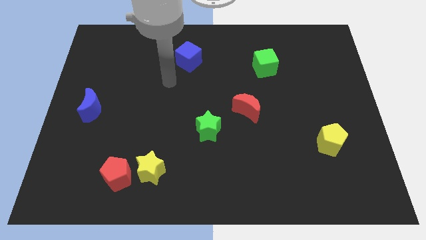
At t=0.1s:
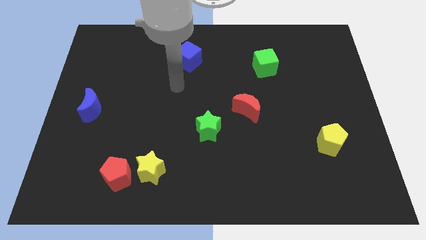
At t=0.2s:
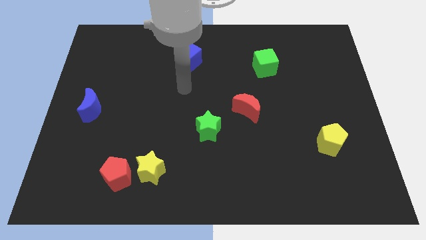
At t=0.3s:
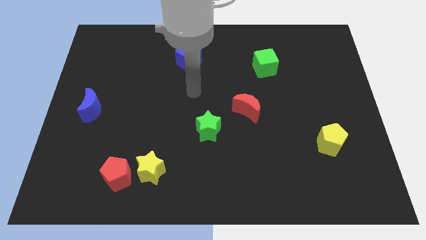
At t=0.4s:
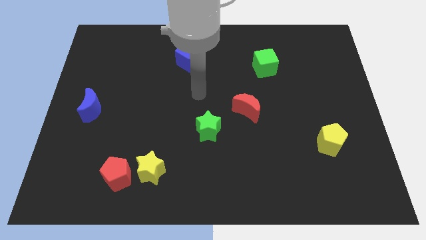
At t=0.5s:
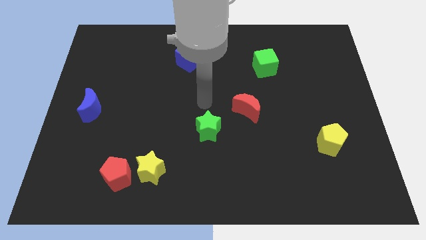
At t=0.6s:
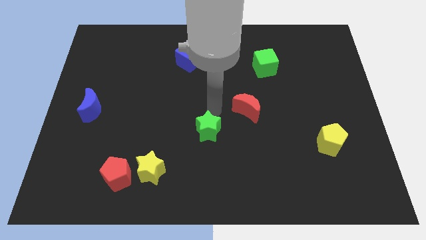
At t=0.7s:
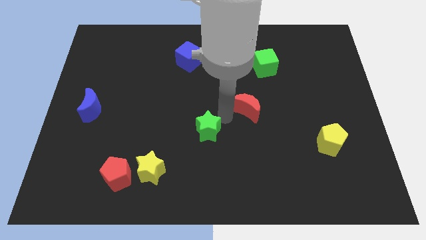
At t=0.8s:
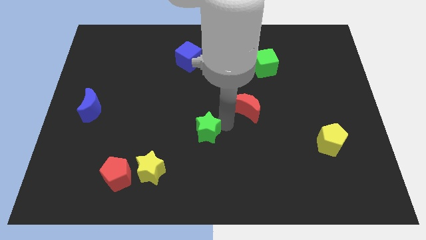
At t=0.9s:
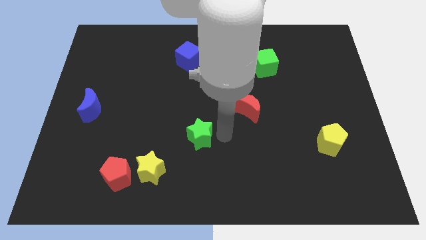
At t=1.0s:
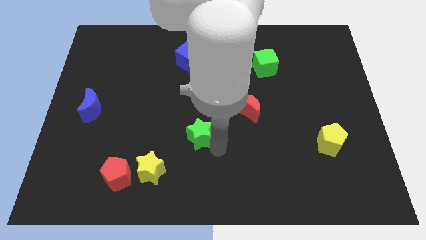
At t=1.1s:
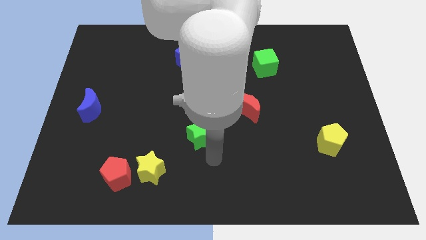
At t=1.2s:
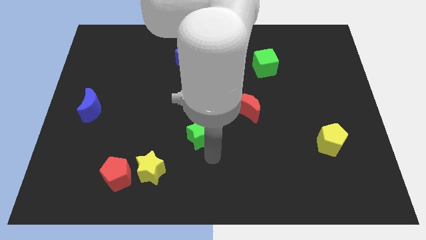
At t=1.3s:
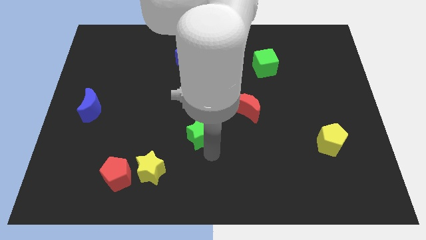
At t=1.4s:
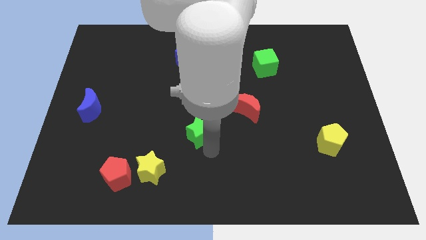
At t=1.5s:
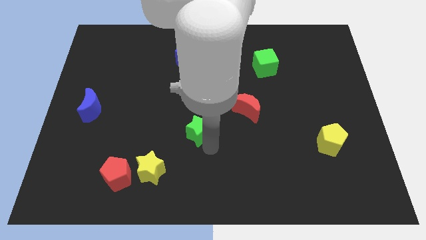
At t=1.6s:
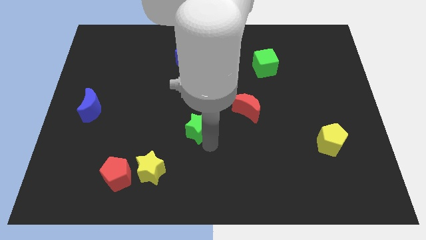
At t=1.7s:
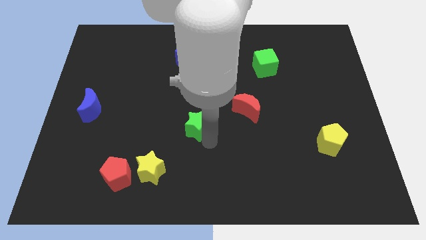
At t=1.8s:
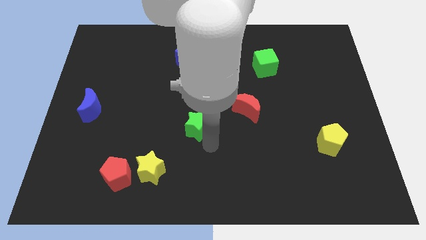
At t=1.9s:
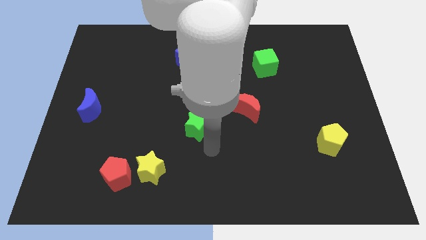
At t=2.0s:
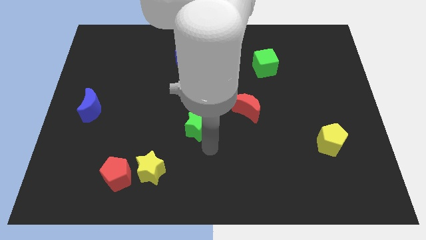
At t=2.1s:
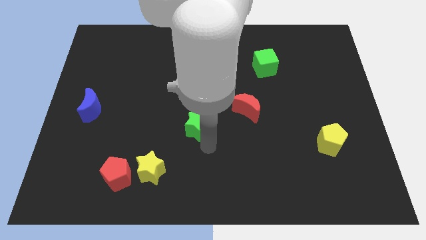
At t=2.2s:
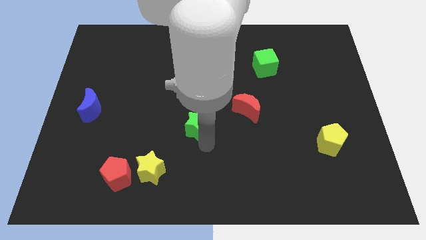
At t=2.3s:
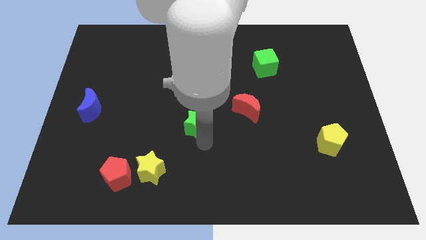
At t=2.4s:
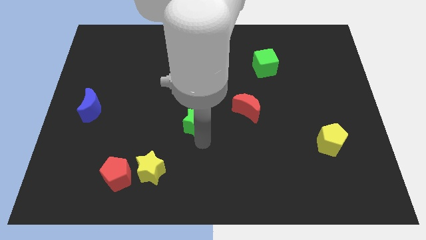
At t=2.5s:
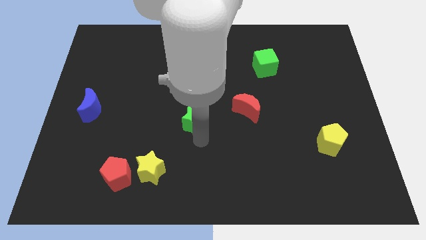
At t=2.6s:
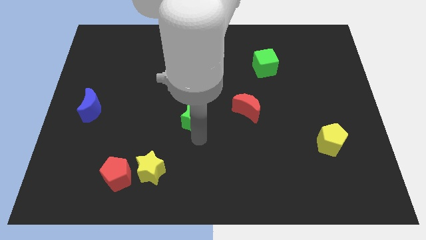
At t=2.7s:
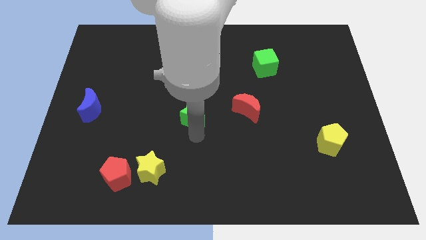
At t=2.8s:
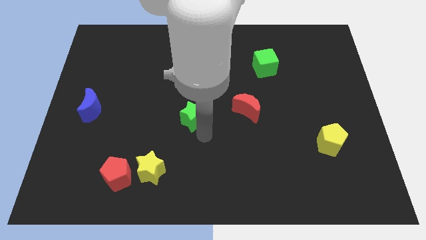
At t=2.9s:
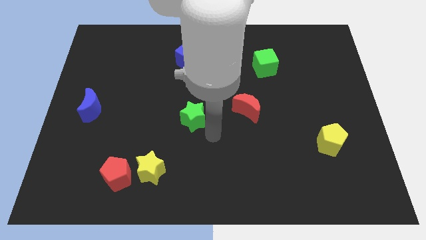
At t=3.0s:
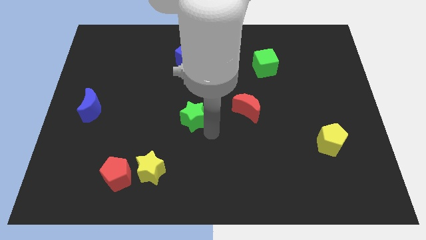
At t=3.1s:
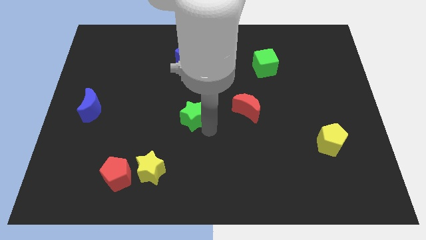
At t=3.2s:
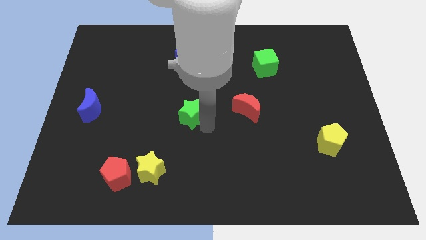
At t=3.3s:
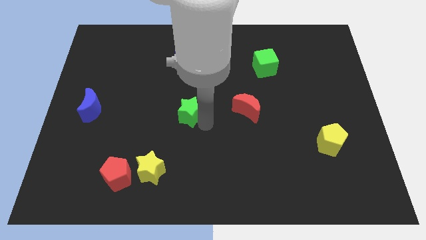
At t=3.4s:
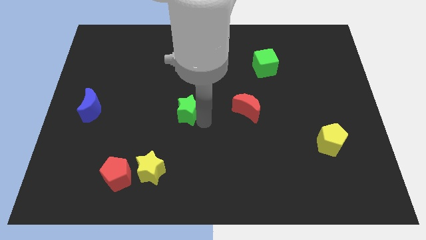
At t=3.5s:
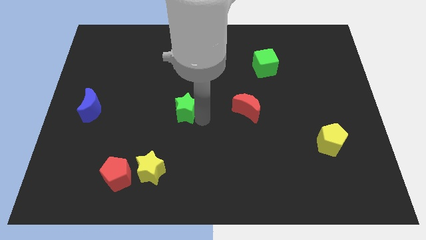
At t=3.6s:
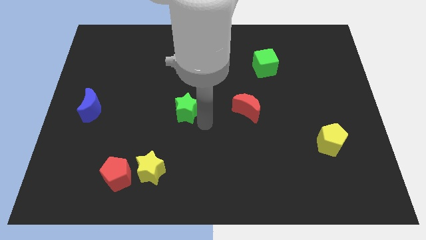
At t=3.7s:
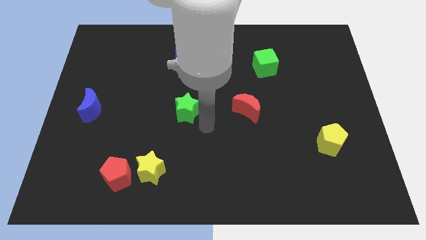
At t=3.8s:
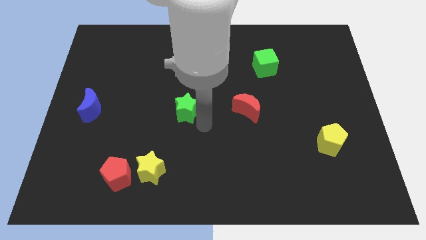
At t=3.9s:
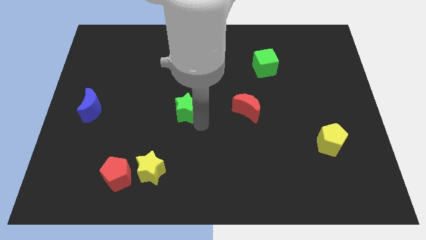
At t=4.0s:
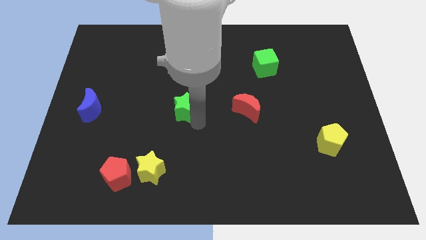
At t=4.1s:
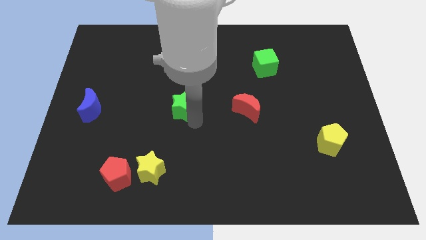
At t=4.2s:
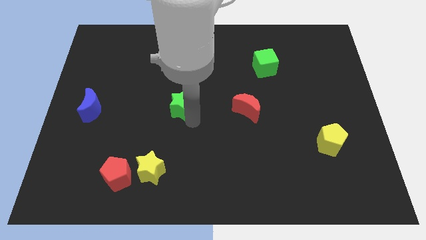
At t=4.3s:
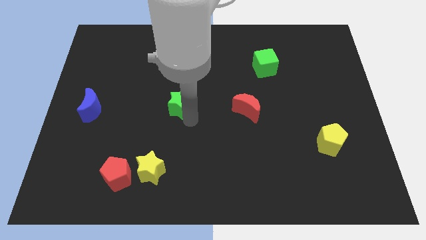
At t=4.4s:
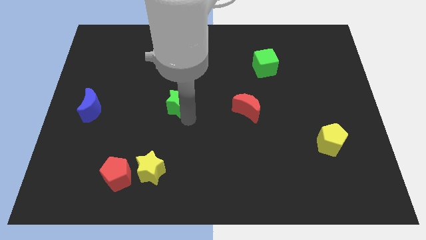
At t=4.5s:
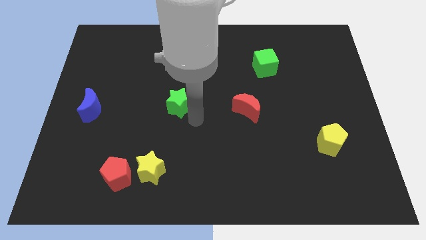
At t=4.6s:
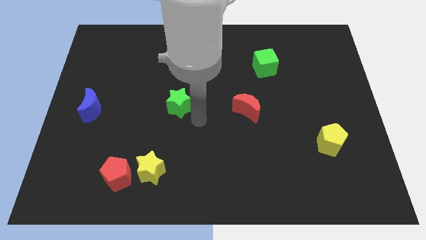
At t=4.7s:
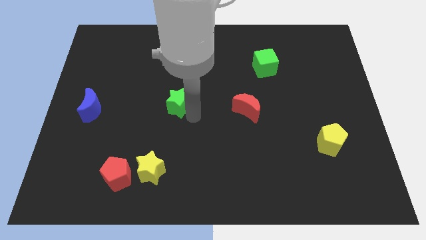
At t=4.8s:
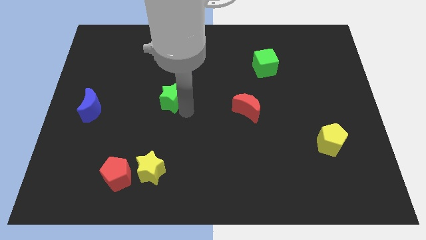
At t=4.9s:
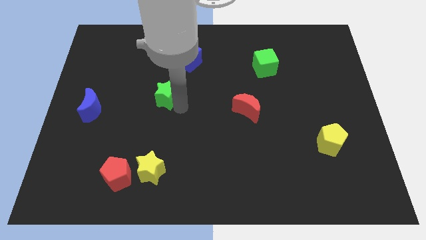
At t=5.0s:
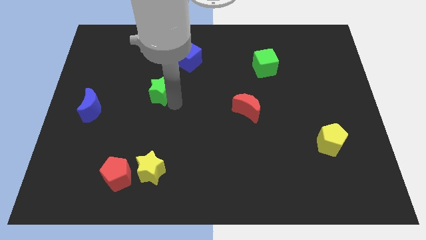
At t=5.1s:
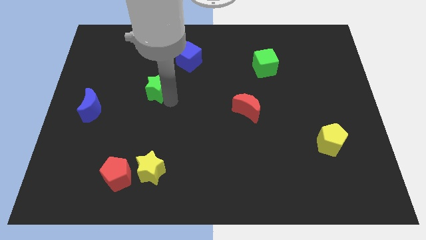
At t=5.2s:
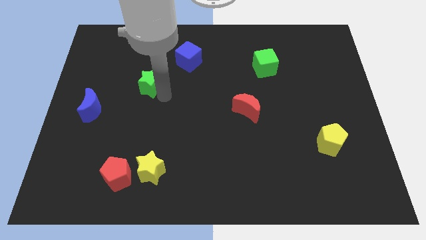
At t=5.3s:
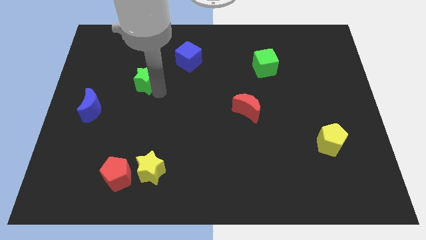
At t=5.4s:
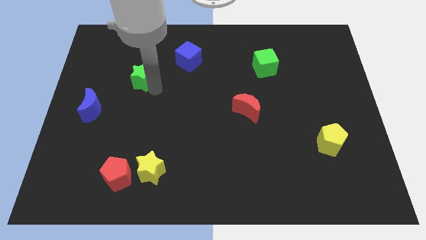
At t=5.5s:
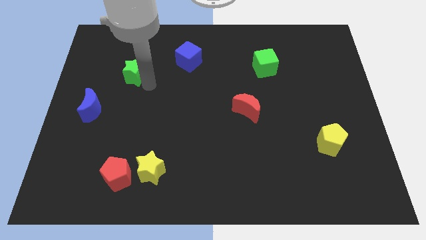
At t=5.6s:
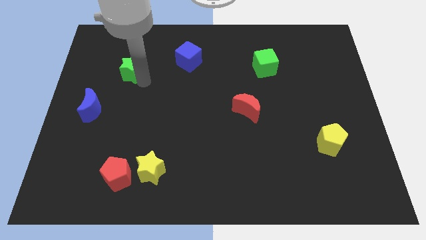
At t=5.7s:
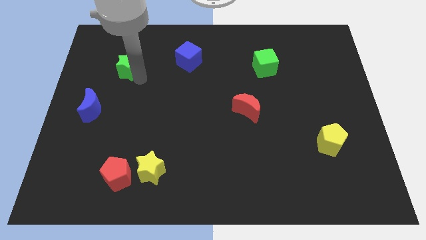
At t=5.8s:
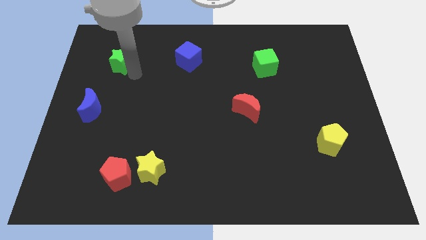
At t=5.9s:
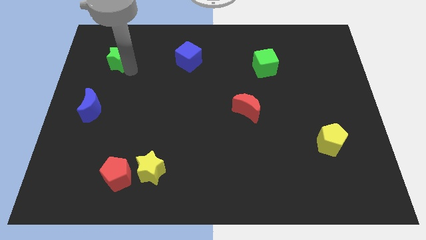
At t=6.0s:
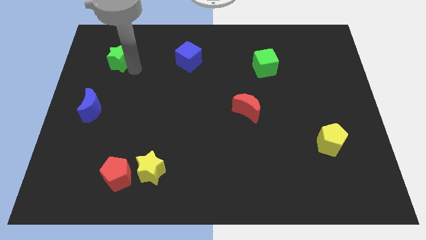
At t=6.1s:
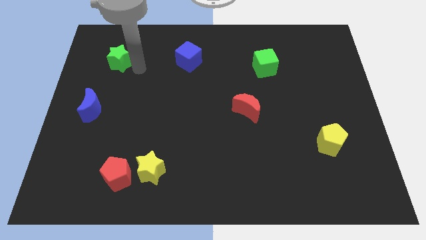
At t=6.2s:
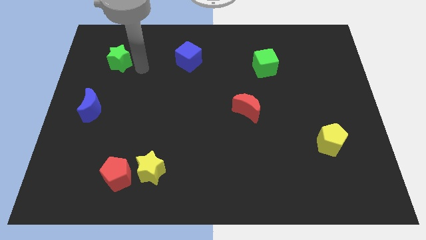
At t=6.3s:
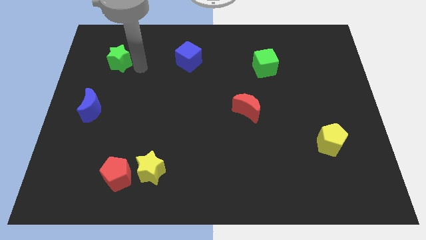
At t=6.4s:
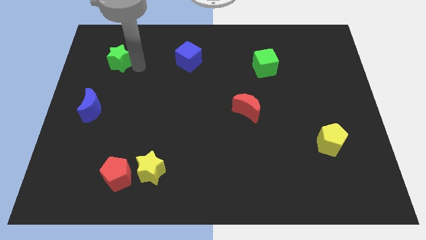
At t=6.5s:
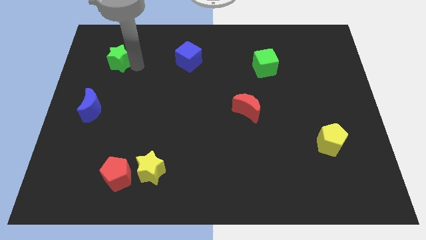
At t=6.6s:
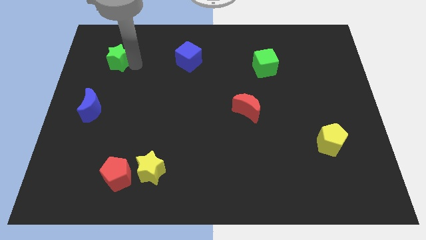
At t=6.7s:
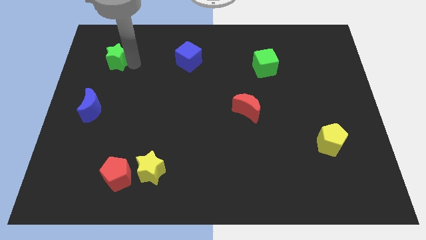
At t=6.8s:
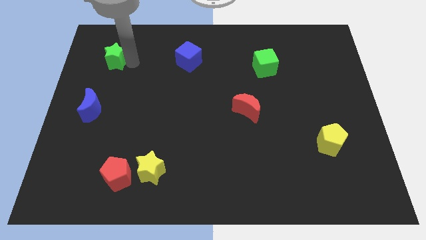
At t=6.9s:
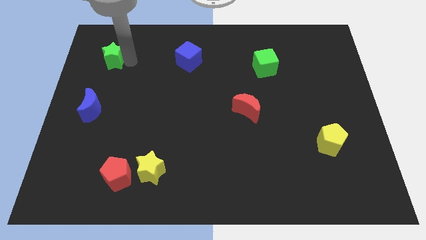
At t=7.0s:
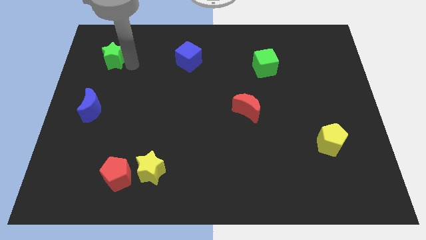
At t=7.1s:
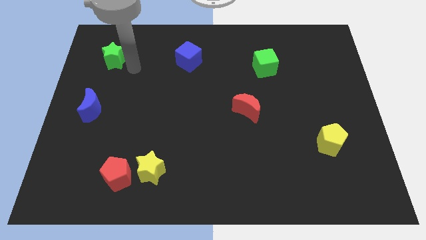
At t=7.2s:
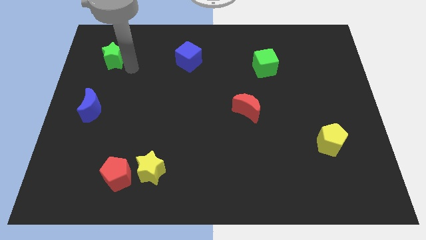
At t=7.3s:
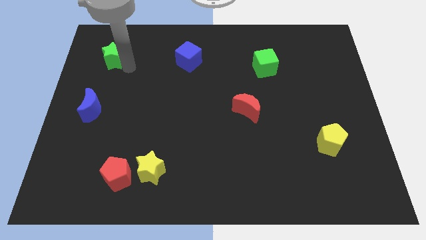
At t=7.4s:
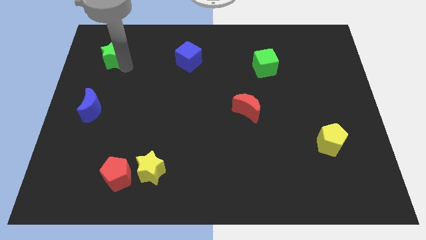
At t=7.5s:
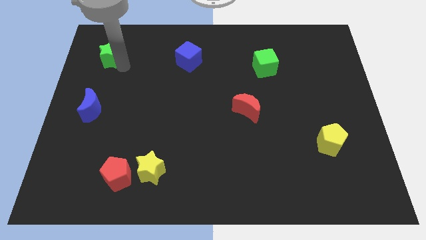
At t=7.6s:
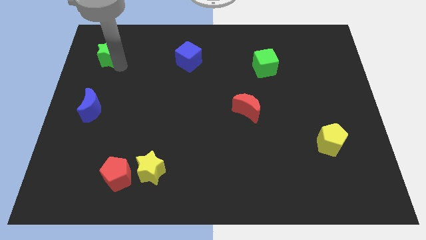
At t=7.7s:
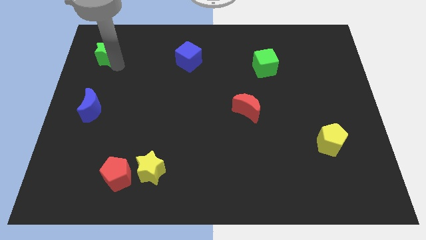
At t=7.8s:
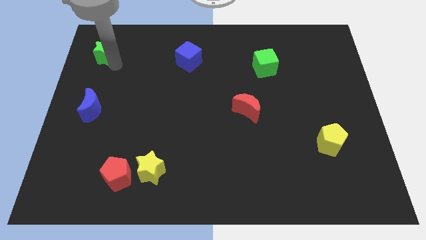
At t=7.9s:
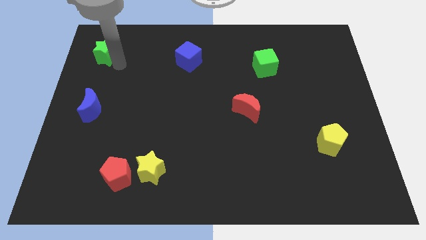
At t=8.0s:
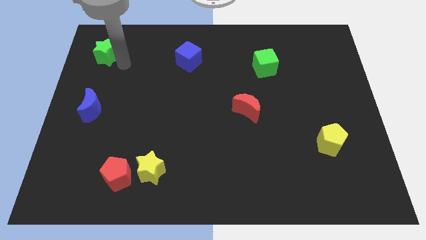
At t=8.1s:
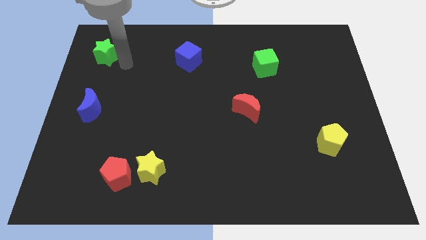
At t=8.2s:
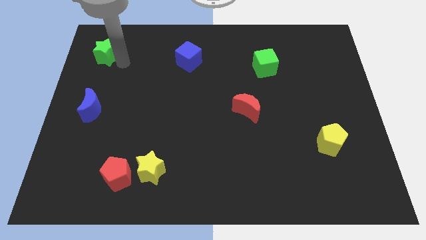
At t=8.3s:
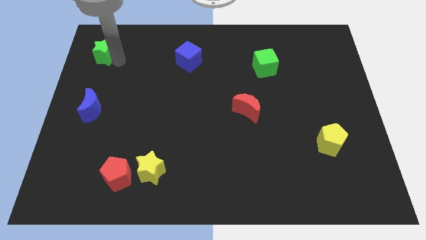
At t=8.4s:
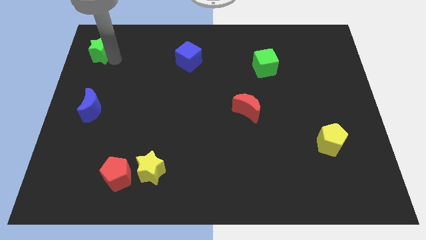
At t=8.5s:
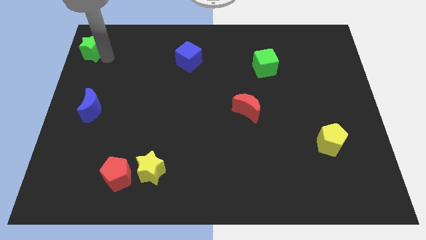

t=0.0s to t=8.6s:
move the green star to the top left corner
